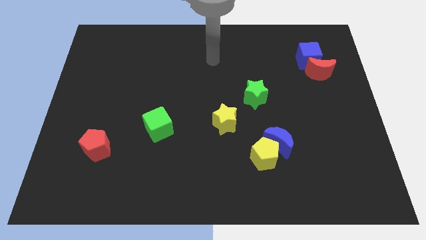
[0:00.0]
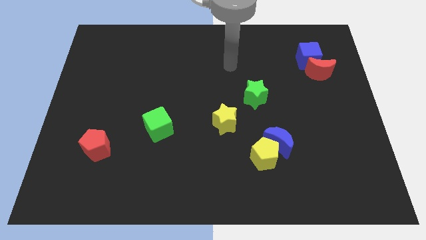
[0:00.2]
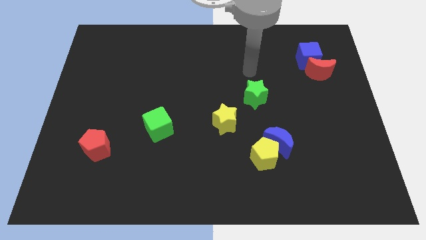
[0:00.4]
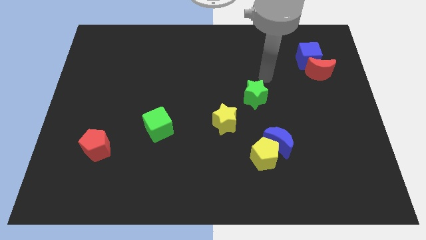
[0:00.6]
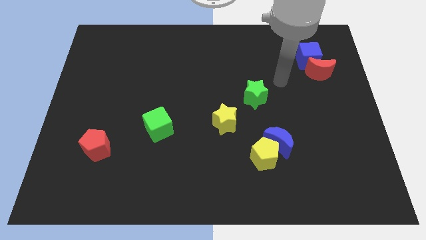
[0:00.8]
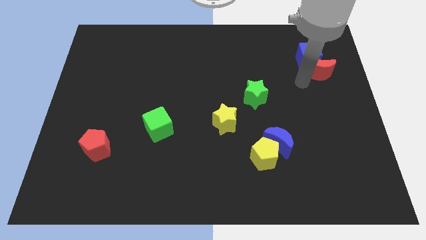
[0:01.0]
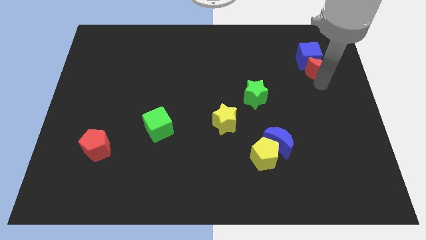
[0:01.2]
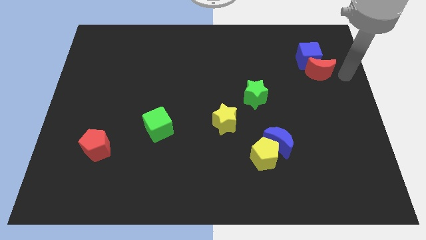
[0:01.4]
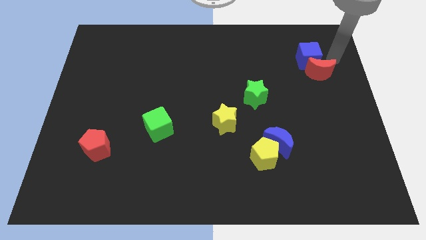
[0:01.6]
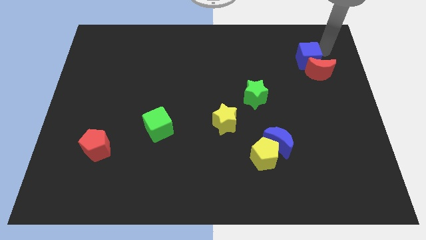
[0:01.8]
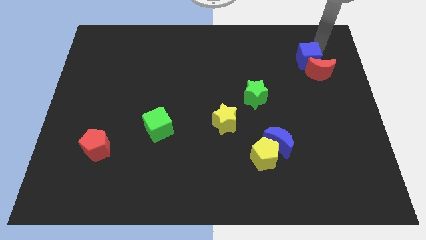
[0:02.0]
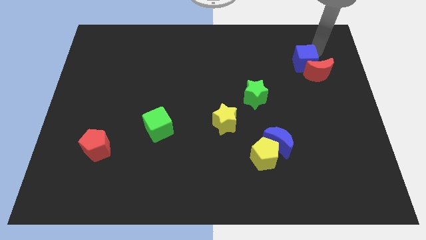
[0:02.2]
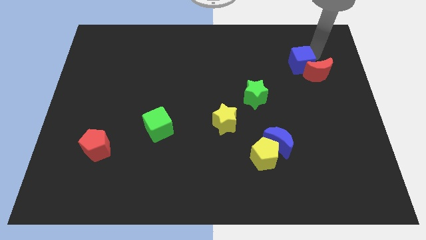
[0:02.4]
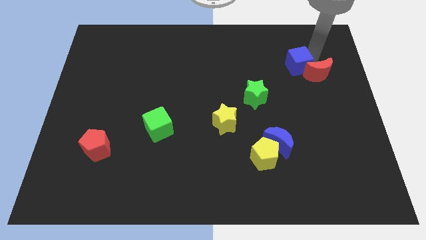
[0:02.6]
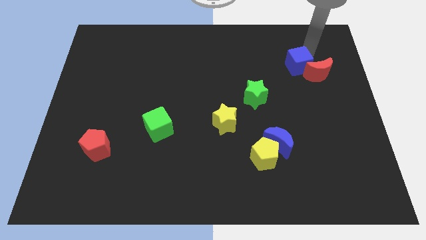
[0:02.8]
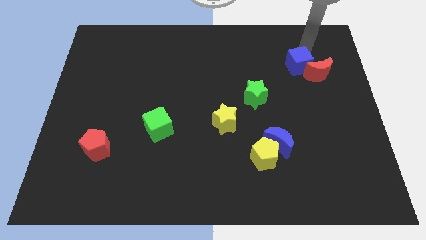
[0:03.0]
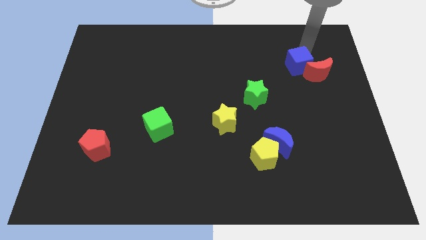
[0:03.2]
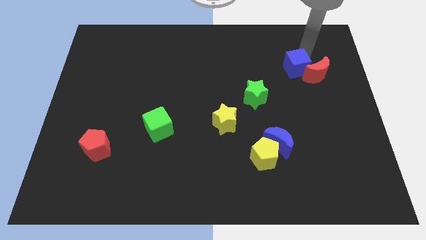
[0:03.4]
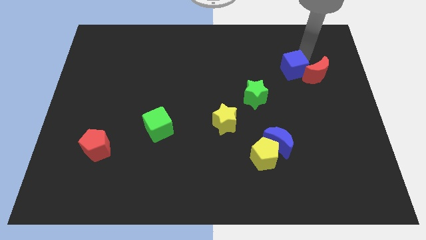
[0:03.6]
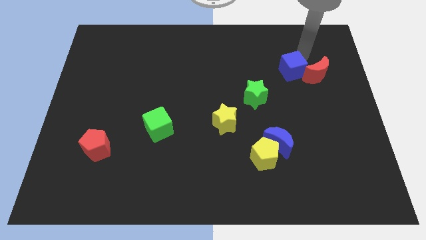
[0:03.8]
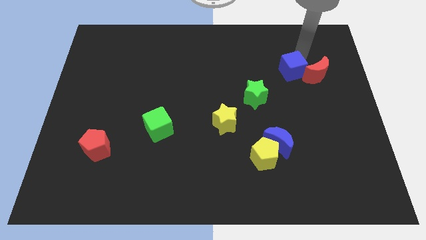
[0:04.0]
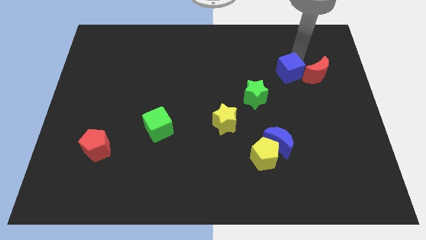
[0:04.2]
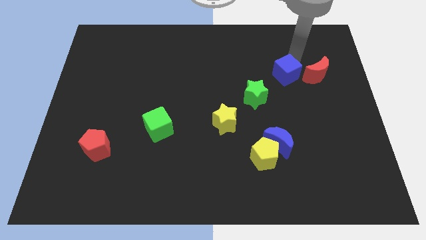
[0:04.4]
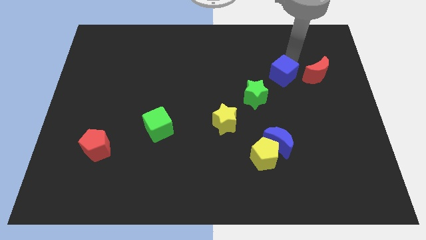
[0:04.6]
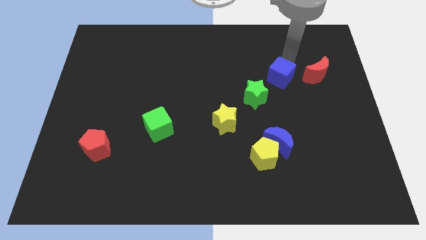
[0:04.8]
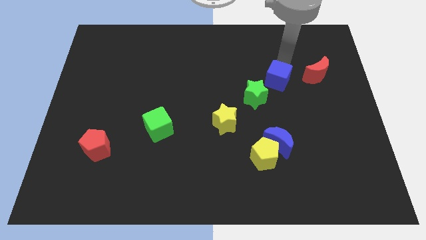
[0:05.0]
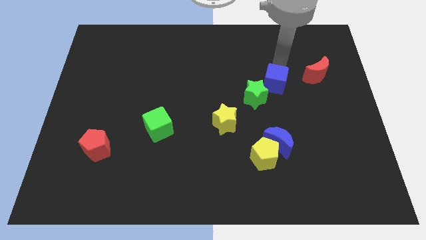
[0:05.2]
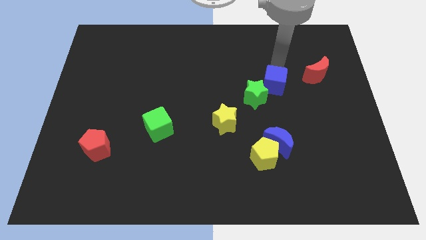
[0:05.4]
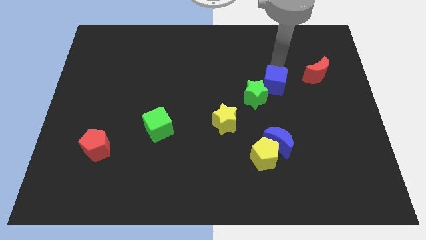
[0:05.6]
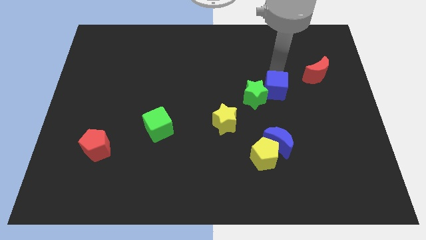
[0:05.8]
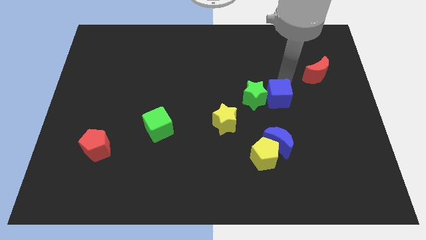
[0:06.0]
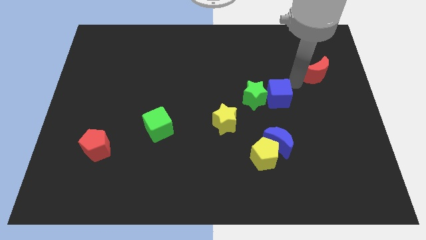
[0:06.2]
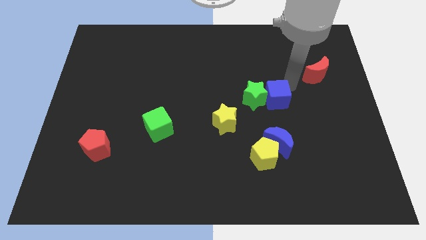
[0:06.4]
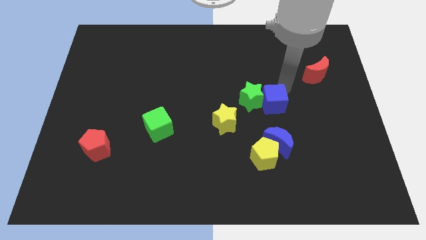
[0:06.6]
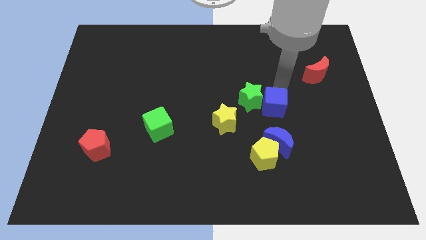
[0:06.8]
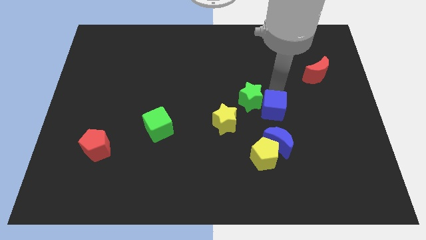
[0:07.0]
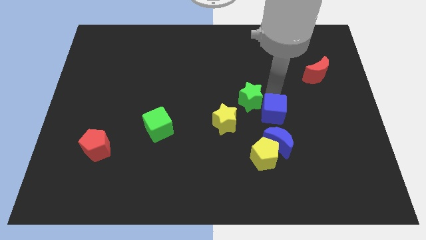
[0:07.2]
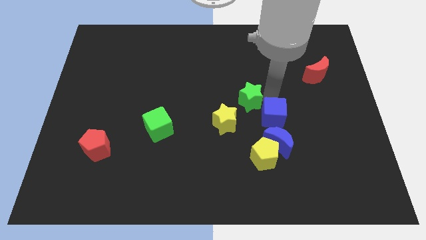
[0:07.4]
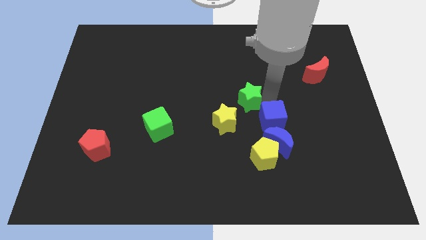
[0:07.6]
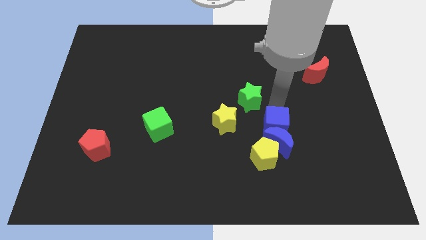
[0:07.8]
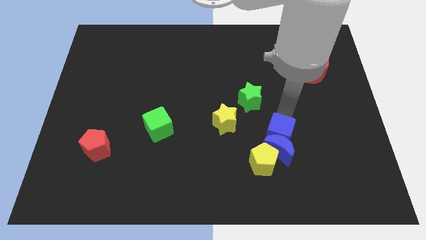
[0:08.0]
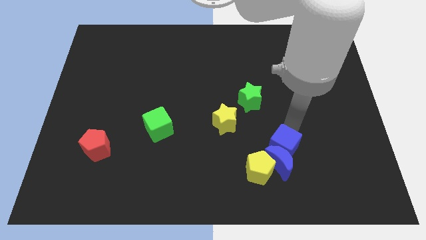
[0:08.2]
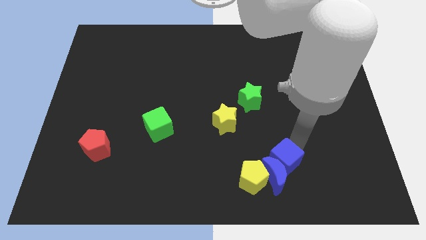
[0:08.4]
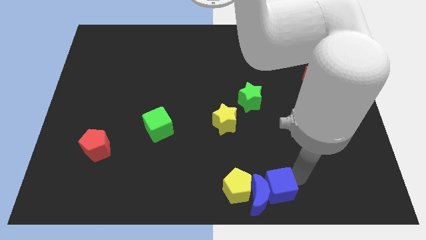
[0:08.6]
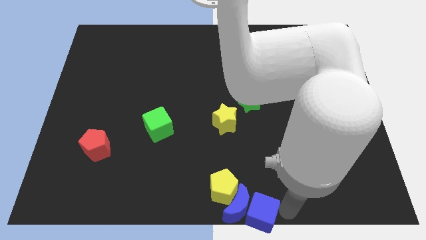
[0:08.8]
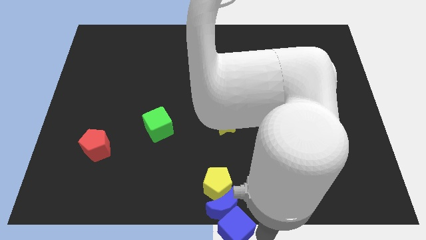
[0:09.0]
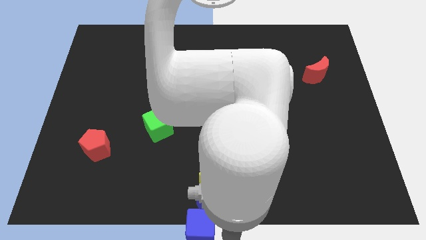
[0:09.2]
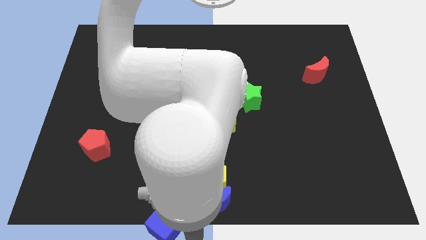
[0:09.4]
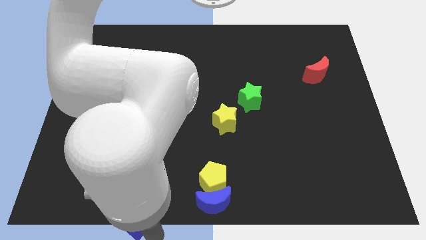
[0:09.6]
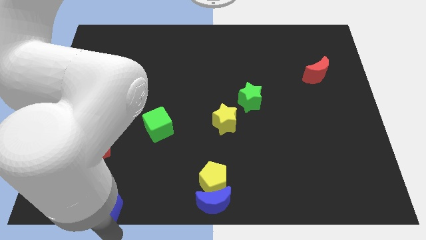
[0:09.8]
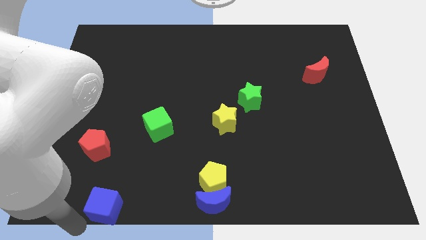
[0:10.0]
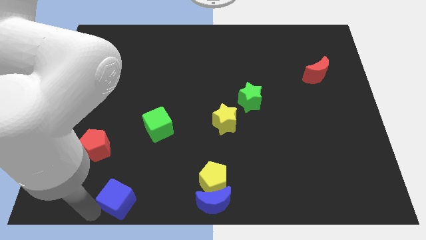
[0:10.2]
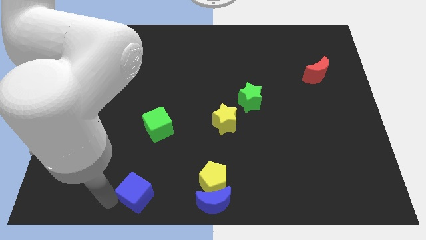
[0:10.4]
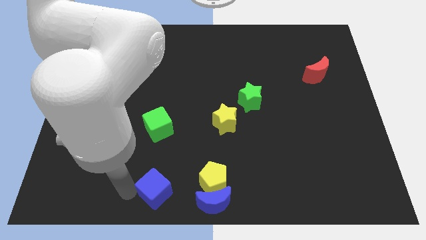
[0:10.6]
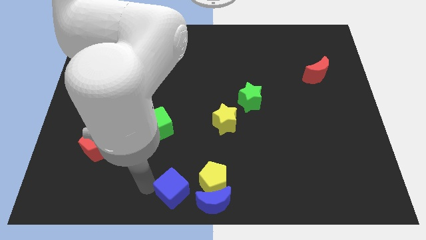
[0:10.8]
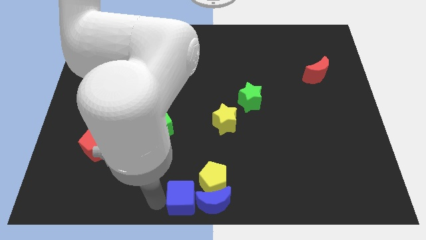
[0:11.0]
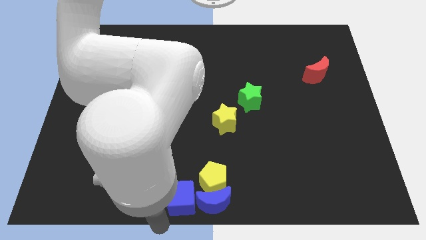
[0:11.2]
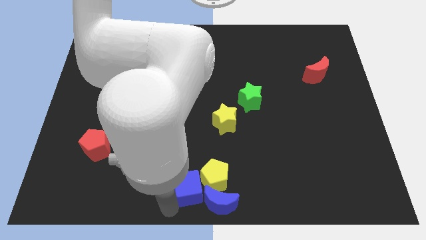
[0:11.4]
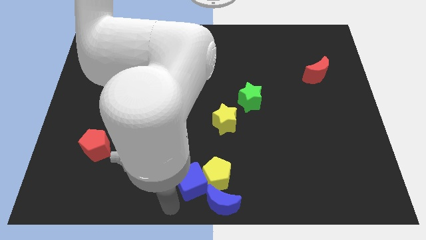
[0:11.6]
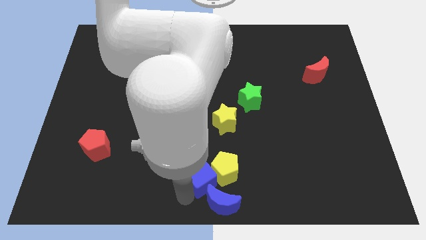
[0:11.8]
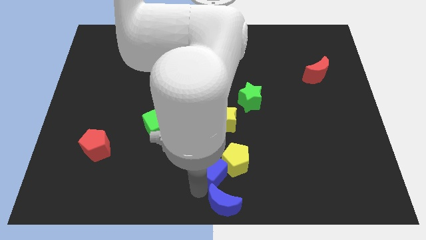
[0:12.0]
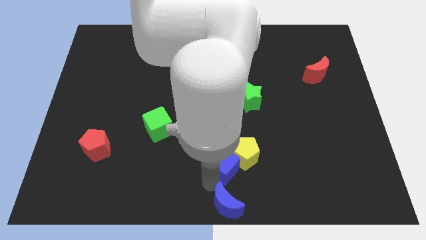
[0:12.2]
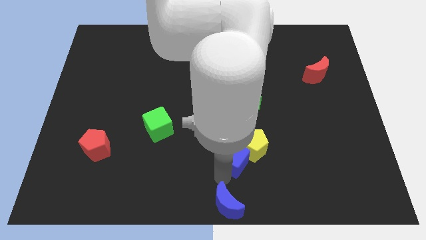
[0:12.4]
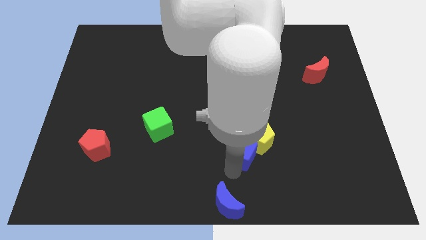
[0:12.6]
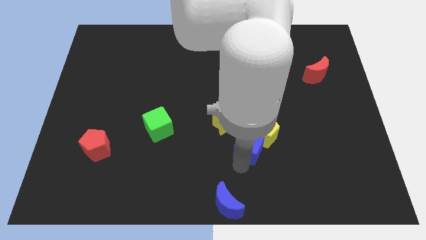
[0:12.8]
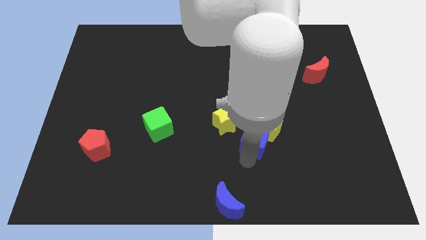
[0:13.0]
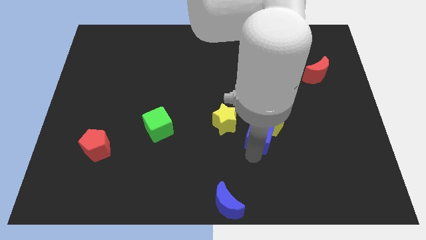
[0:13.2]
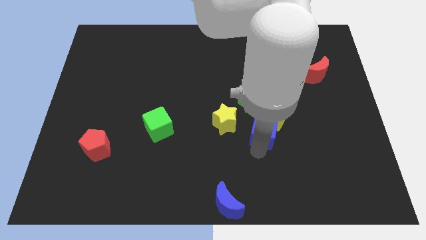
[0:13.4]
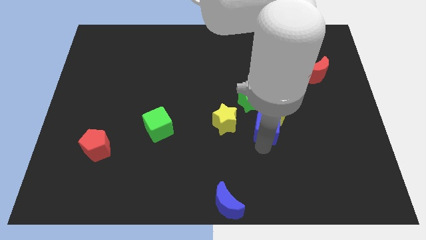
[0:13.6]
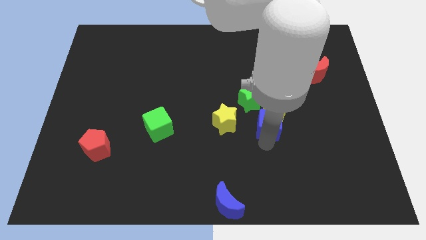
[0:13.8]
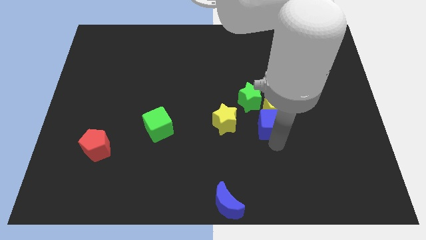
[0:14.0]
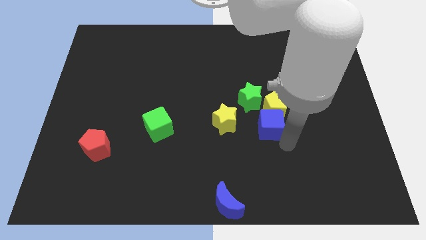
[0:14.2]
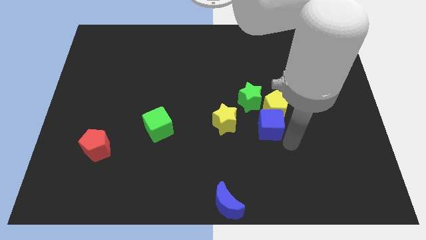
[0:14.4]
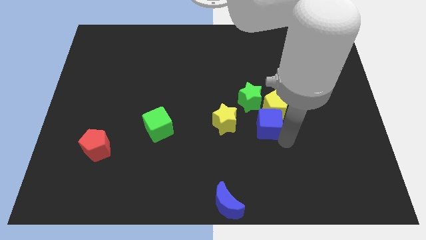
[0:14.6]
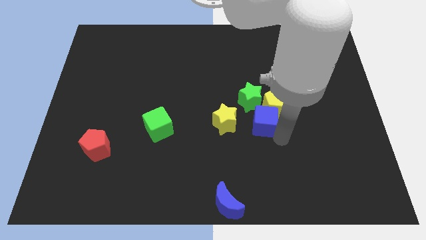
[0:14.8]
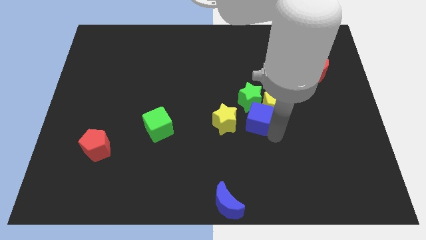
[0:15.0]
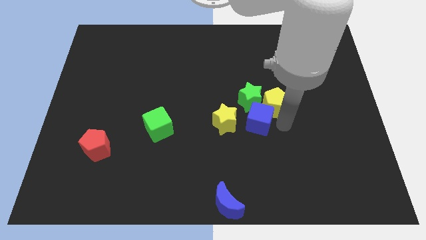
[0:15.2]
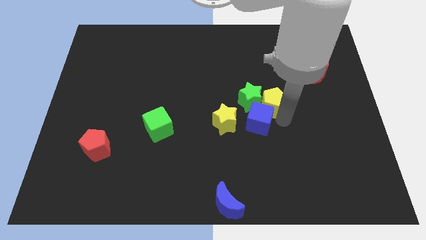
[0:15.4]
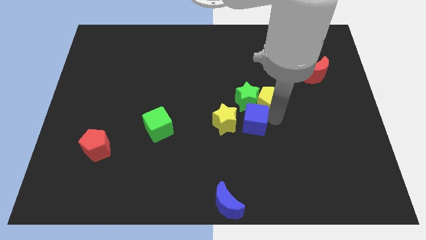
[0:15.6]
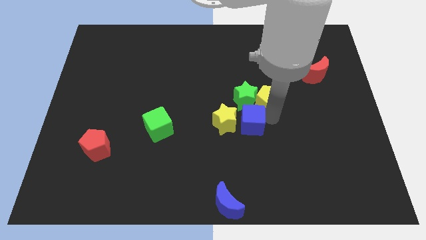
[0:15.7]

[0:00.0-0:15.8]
slide the blue cube towards the yellow star
